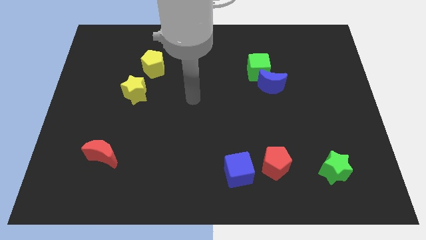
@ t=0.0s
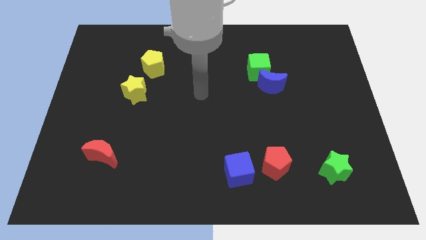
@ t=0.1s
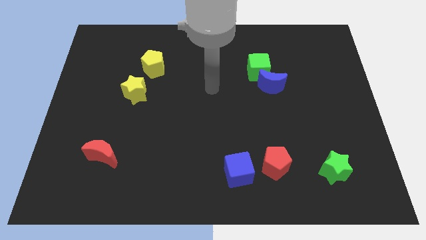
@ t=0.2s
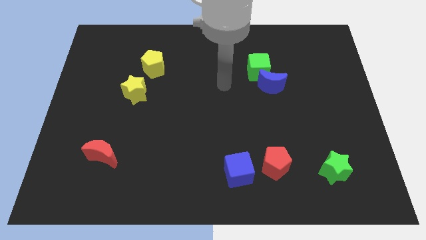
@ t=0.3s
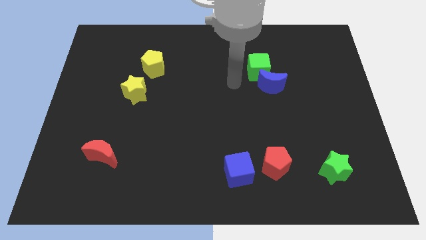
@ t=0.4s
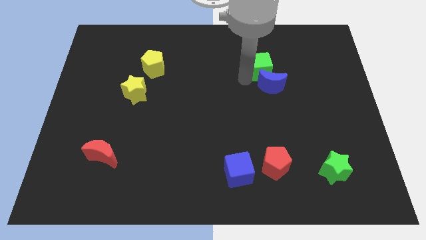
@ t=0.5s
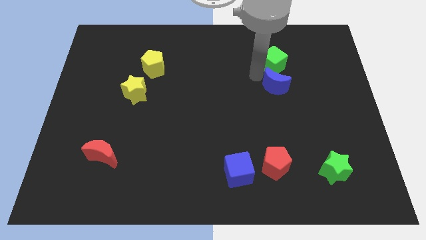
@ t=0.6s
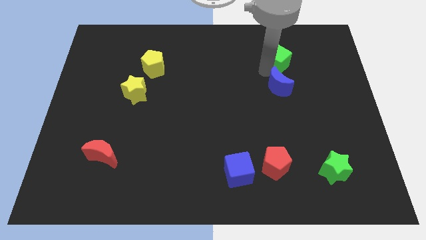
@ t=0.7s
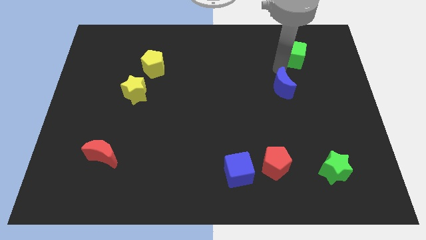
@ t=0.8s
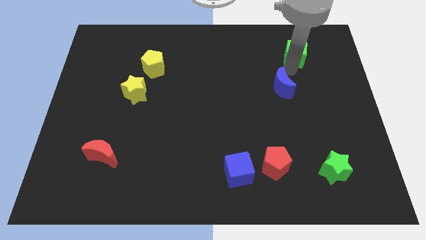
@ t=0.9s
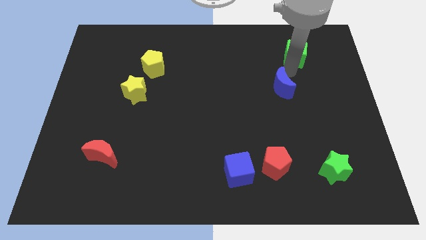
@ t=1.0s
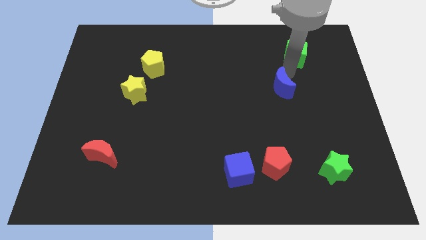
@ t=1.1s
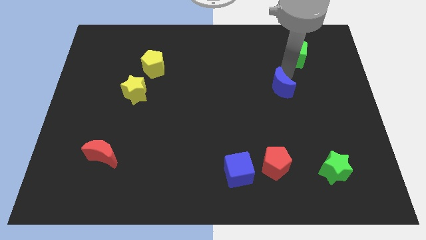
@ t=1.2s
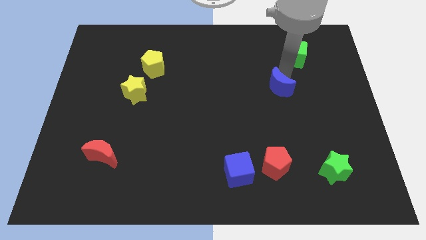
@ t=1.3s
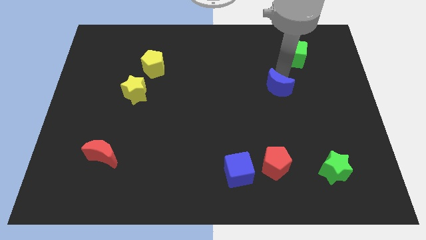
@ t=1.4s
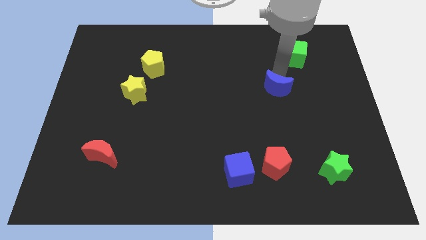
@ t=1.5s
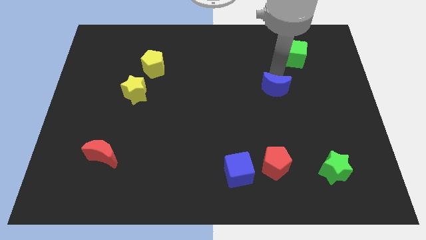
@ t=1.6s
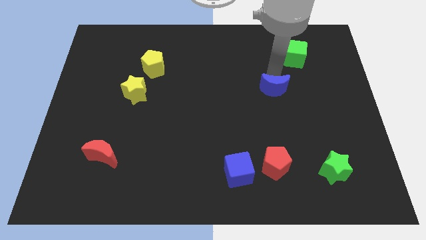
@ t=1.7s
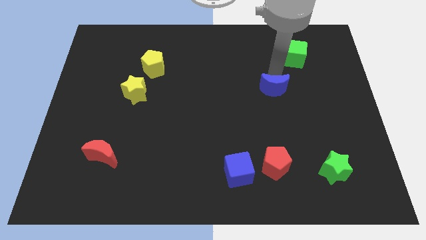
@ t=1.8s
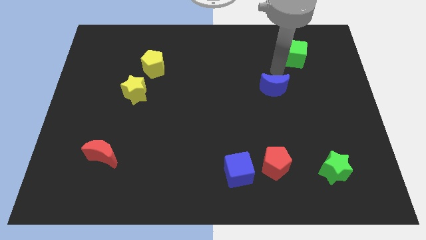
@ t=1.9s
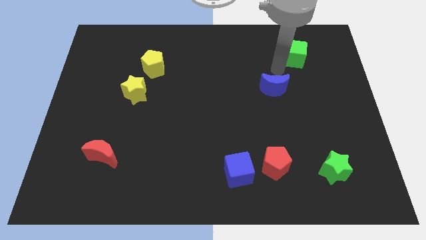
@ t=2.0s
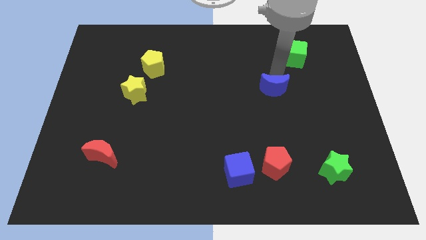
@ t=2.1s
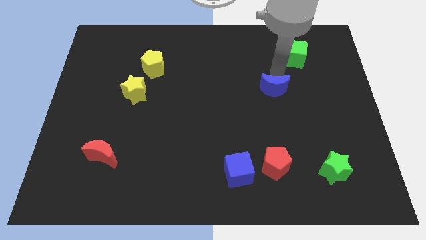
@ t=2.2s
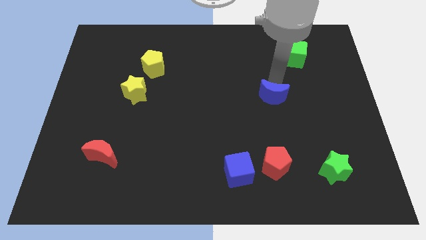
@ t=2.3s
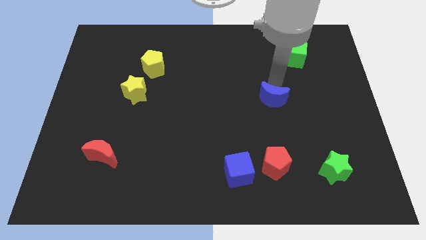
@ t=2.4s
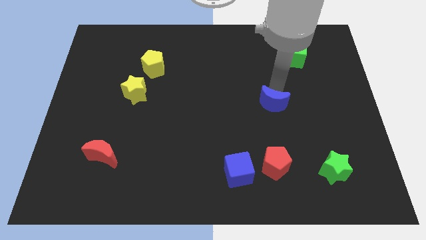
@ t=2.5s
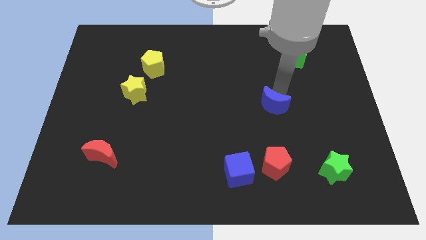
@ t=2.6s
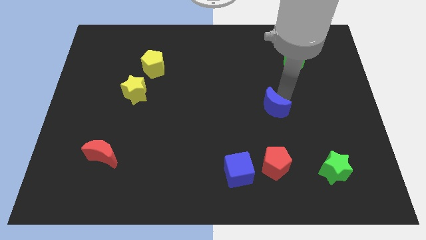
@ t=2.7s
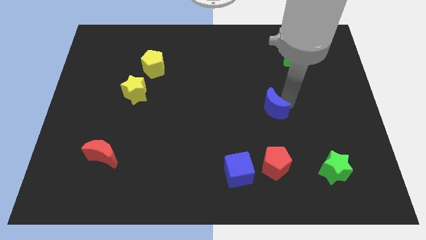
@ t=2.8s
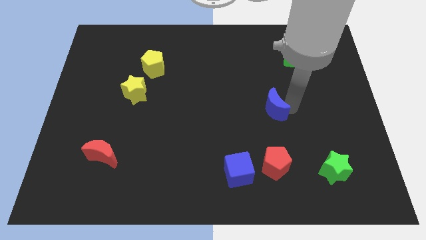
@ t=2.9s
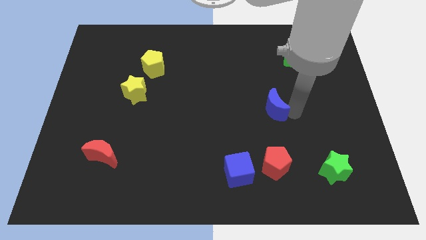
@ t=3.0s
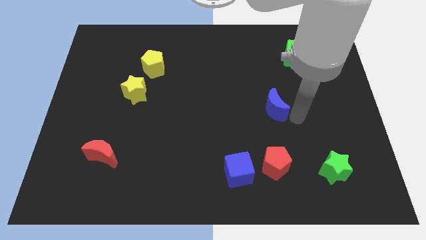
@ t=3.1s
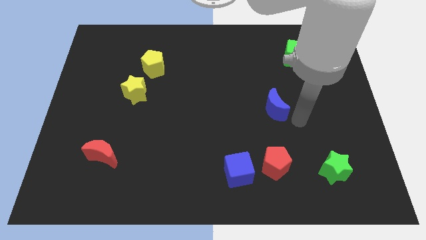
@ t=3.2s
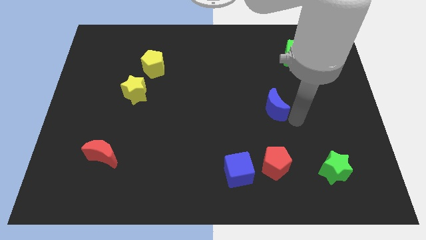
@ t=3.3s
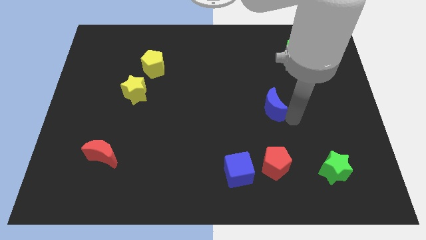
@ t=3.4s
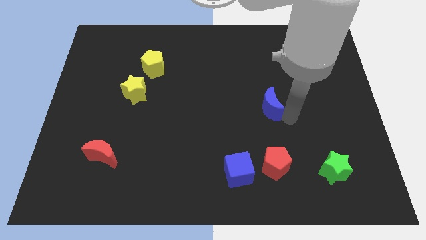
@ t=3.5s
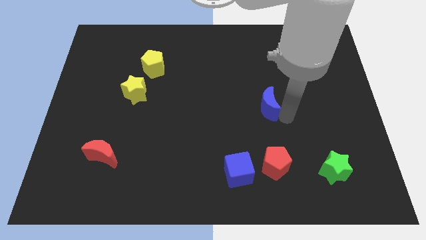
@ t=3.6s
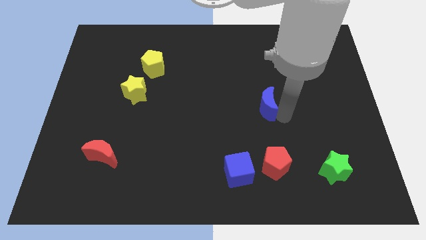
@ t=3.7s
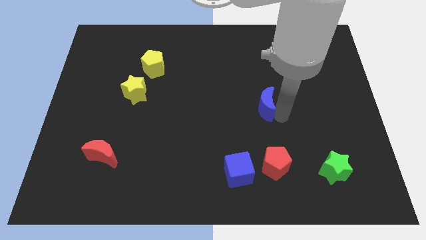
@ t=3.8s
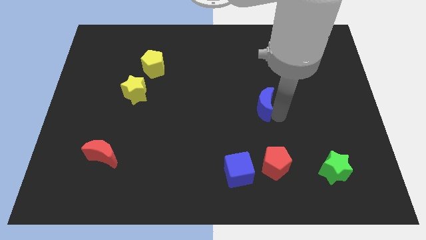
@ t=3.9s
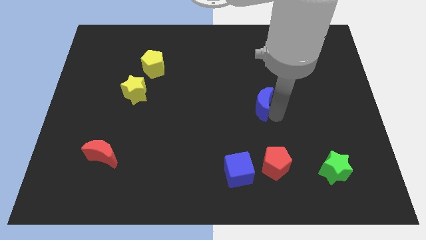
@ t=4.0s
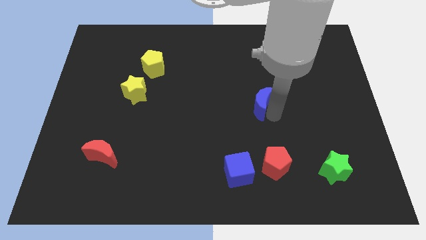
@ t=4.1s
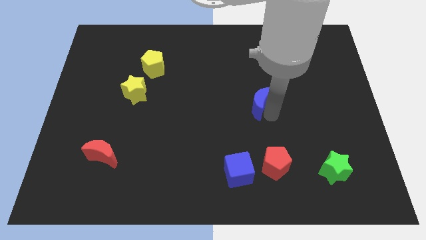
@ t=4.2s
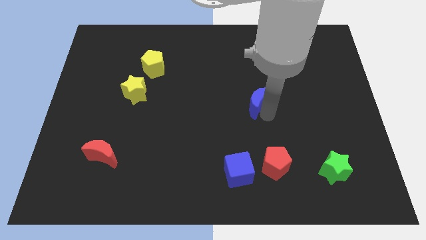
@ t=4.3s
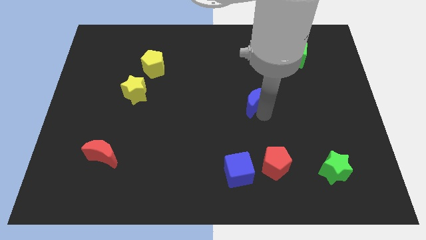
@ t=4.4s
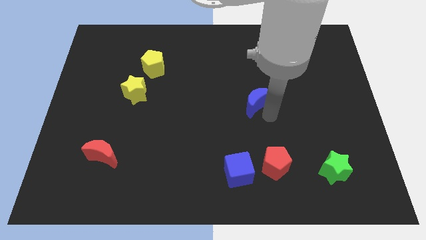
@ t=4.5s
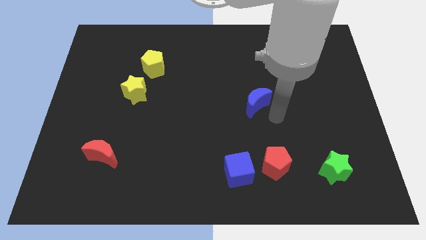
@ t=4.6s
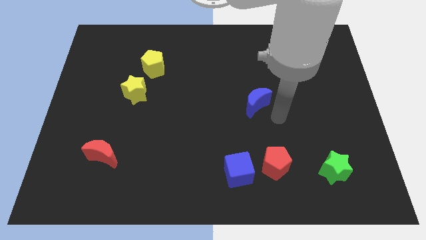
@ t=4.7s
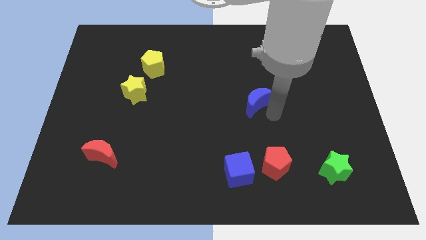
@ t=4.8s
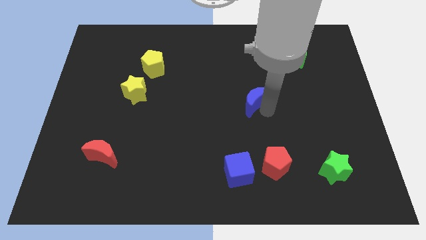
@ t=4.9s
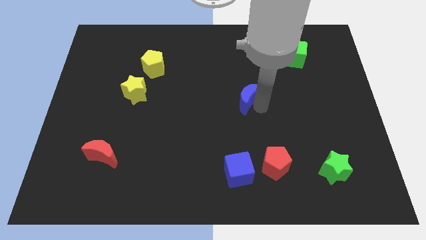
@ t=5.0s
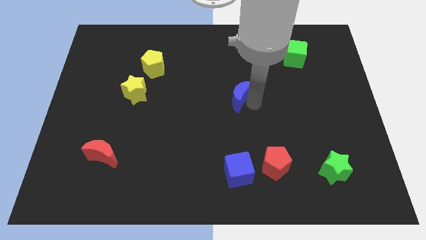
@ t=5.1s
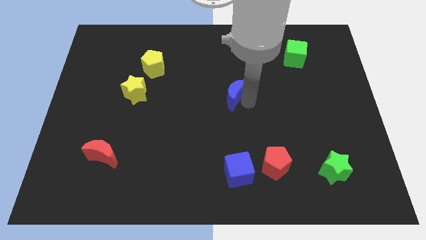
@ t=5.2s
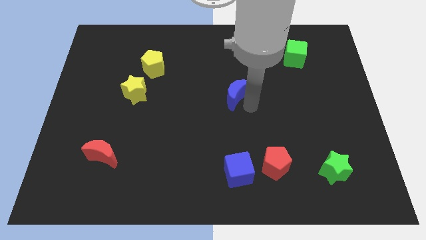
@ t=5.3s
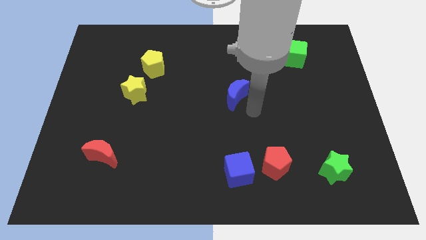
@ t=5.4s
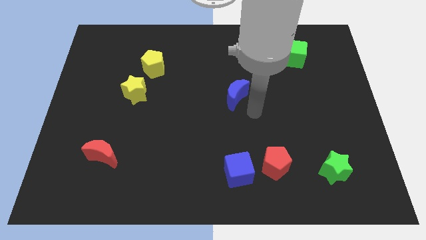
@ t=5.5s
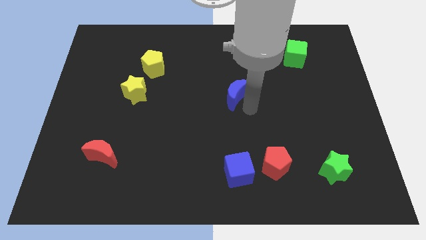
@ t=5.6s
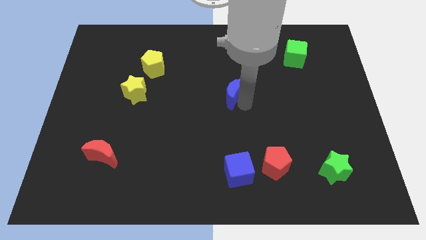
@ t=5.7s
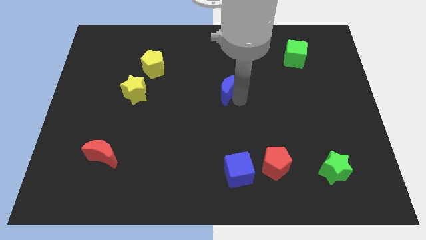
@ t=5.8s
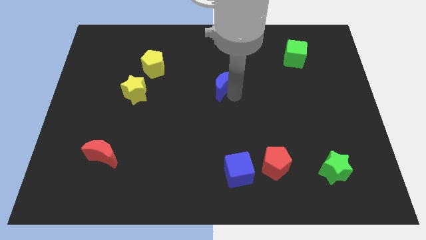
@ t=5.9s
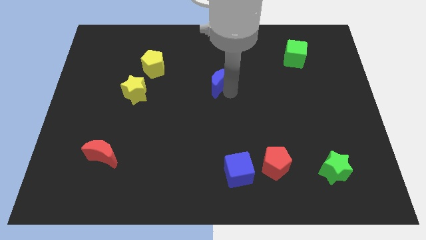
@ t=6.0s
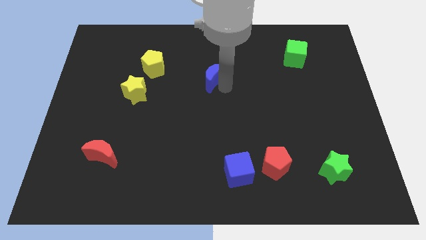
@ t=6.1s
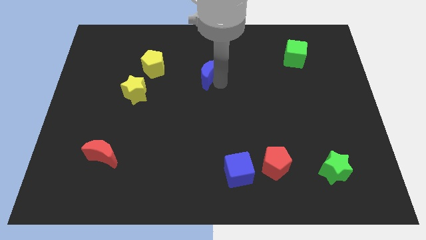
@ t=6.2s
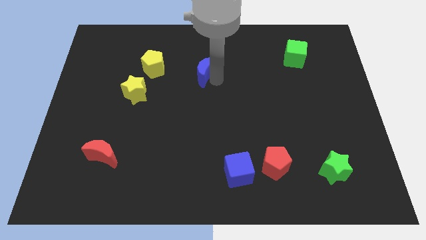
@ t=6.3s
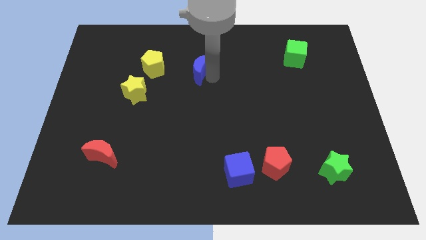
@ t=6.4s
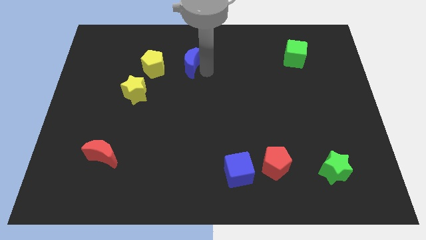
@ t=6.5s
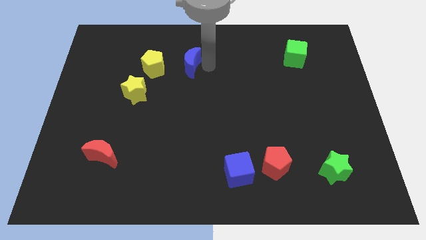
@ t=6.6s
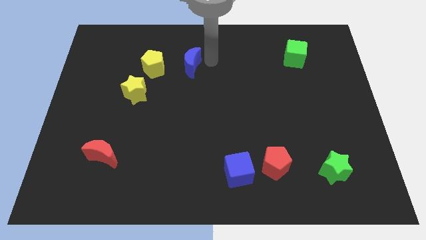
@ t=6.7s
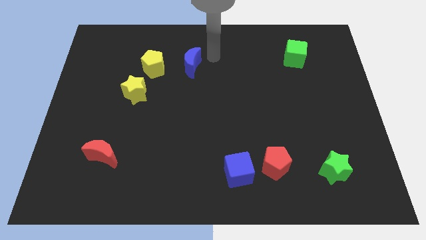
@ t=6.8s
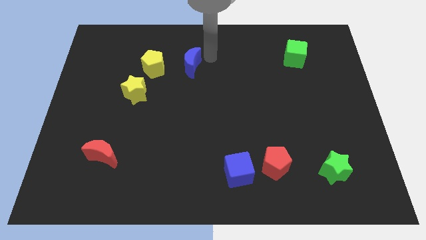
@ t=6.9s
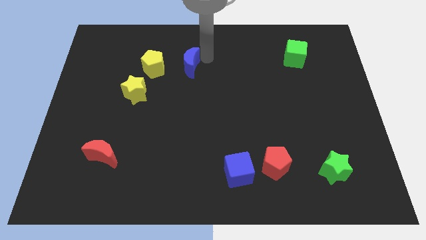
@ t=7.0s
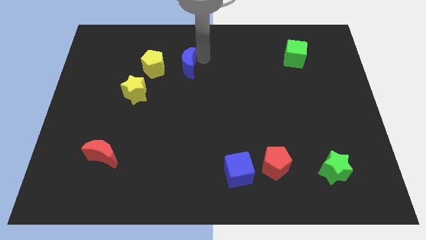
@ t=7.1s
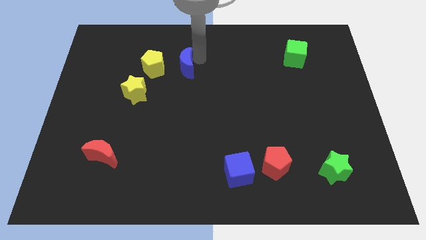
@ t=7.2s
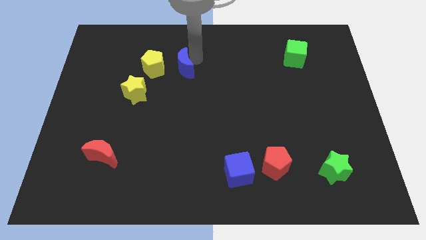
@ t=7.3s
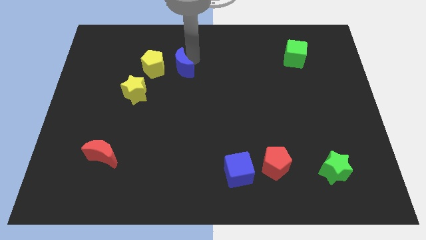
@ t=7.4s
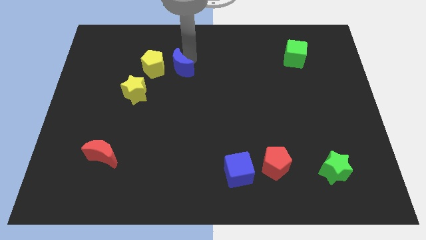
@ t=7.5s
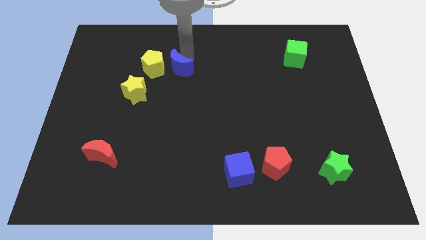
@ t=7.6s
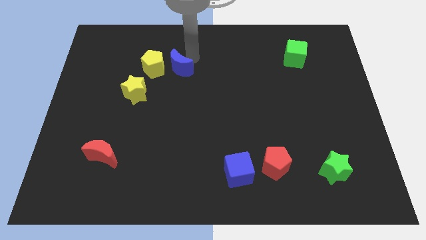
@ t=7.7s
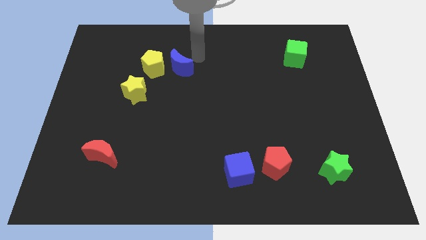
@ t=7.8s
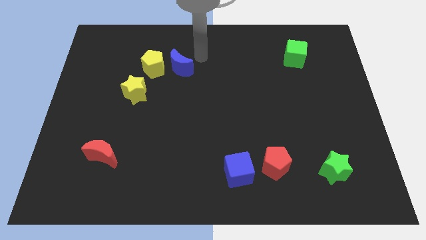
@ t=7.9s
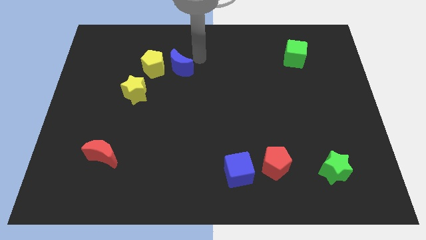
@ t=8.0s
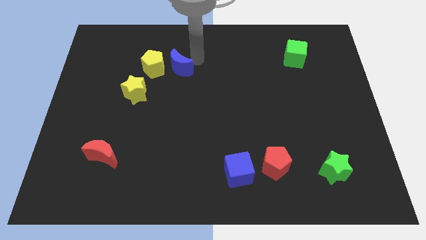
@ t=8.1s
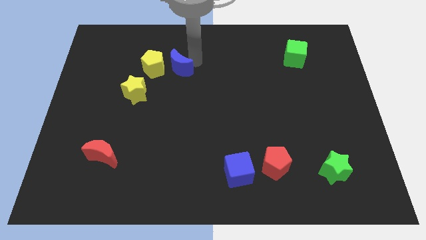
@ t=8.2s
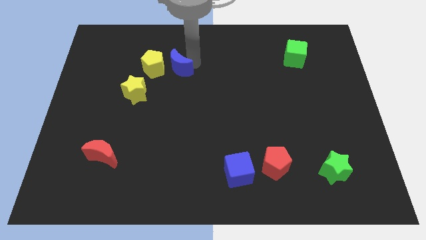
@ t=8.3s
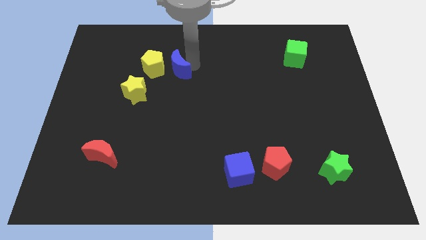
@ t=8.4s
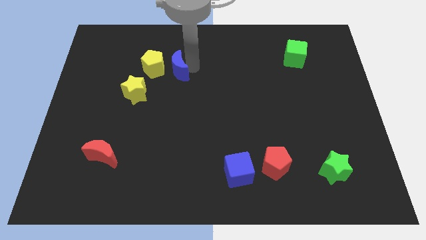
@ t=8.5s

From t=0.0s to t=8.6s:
slide the blue moon to the top right side of the yellow star
